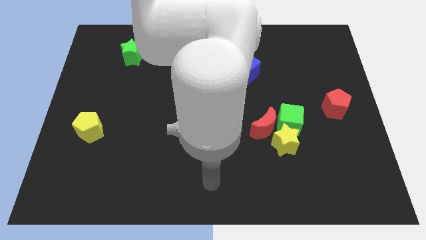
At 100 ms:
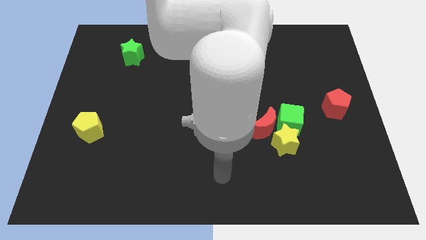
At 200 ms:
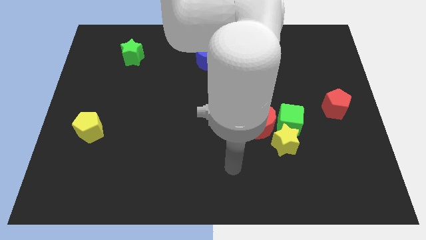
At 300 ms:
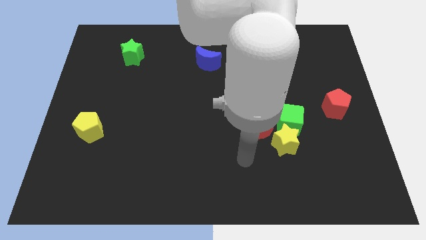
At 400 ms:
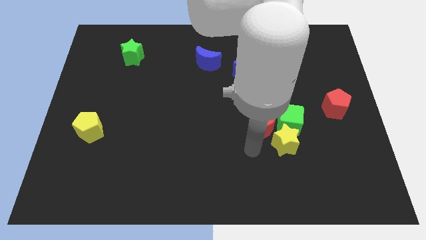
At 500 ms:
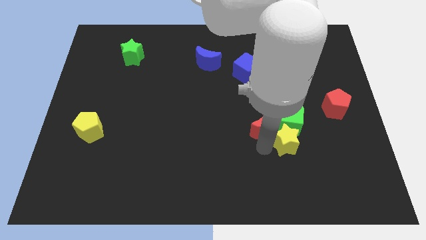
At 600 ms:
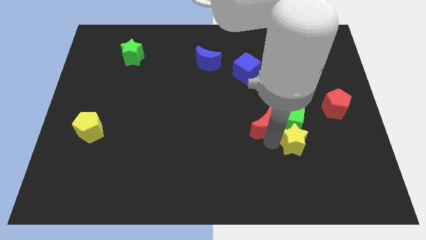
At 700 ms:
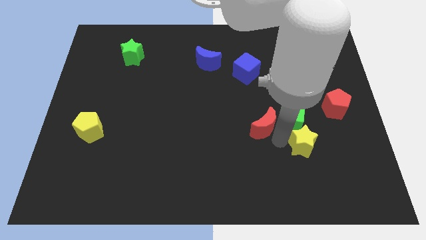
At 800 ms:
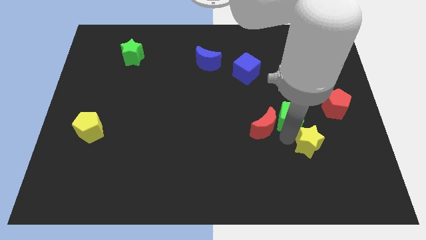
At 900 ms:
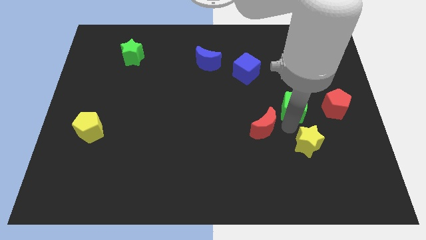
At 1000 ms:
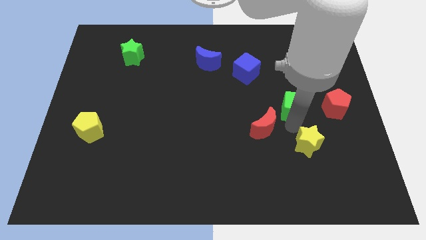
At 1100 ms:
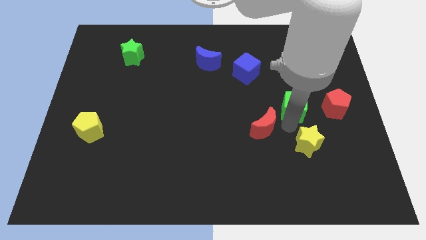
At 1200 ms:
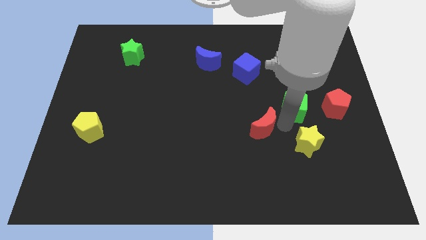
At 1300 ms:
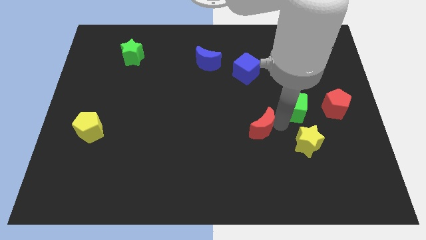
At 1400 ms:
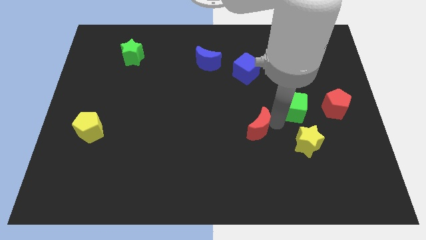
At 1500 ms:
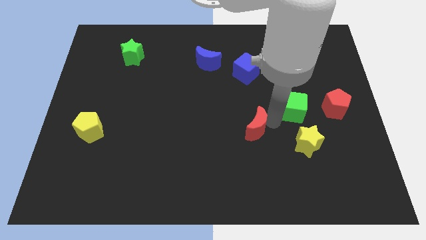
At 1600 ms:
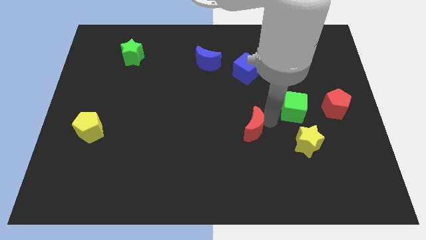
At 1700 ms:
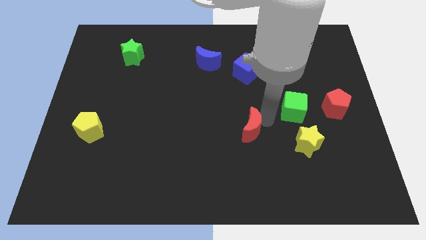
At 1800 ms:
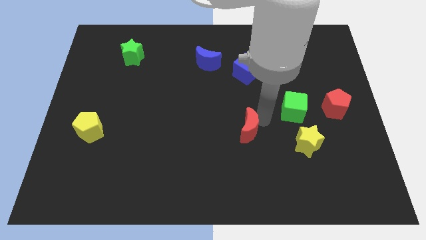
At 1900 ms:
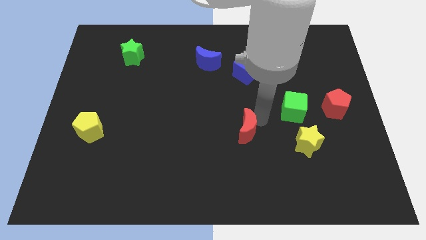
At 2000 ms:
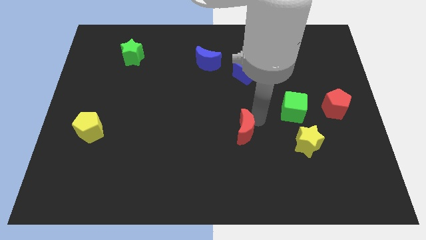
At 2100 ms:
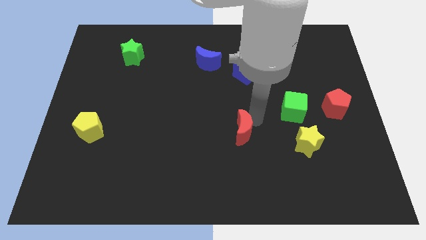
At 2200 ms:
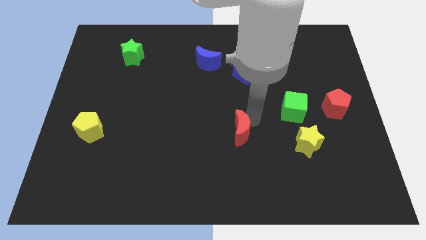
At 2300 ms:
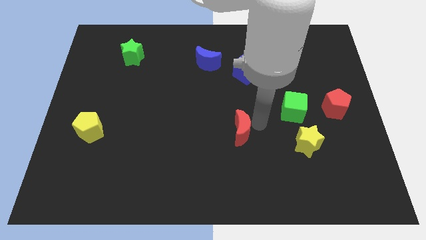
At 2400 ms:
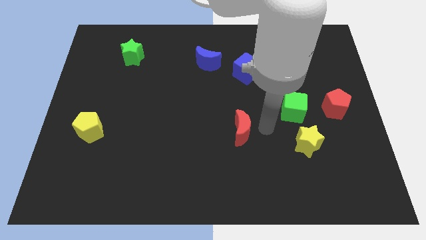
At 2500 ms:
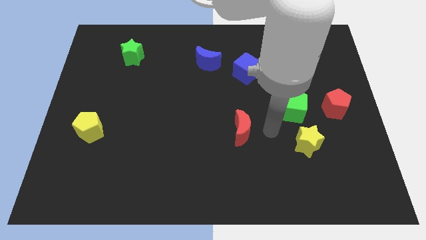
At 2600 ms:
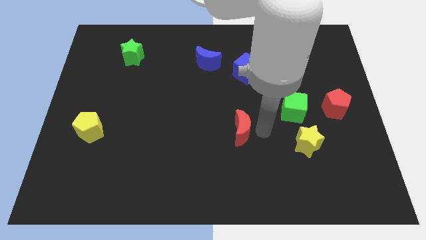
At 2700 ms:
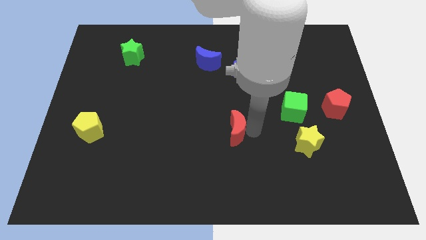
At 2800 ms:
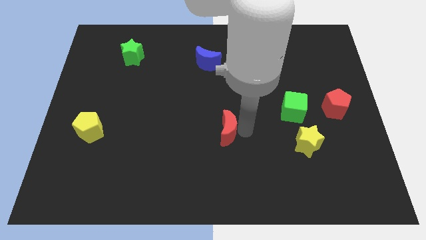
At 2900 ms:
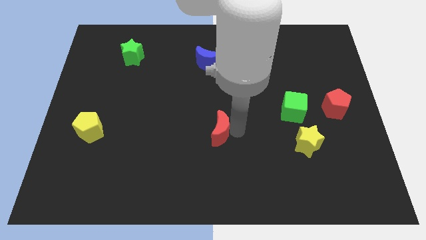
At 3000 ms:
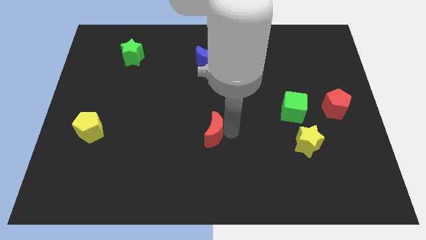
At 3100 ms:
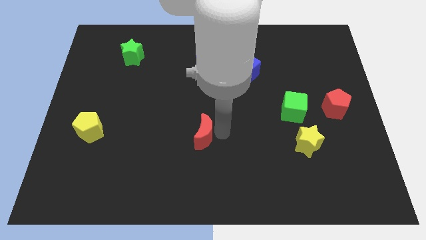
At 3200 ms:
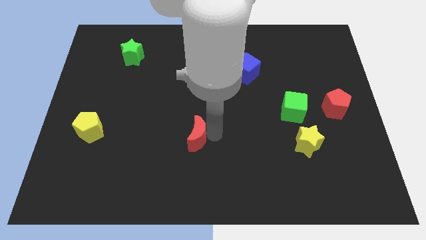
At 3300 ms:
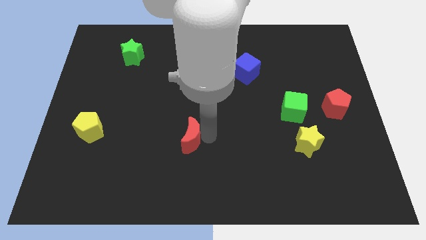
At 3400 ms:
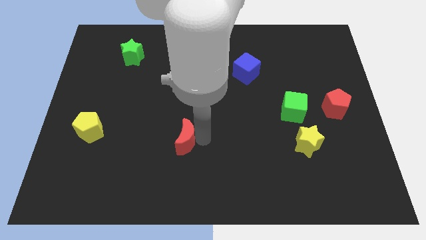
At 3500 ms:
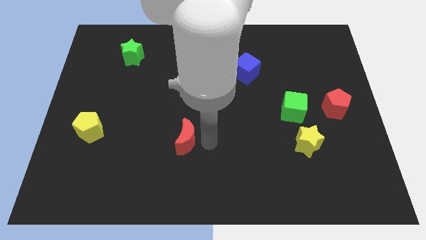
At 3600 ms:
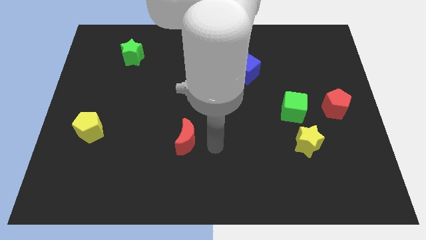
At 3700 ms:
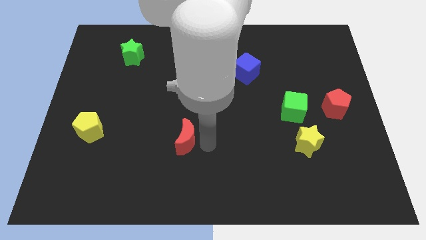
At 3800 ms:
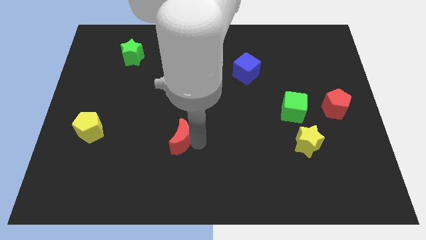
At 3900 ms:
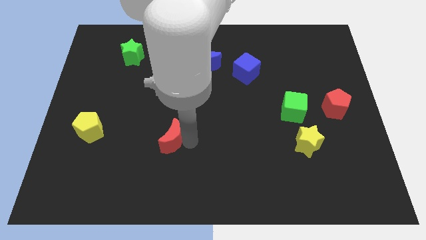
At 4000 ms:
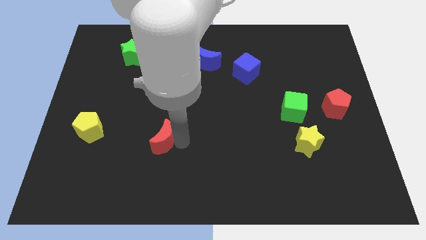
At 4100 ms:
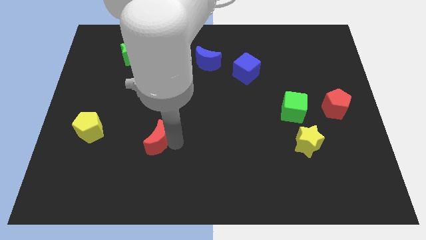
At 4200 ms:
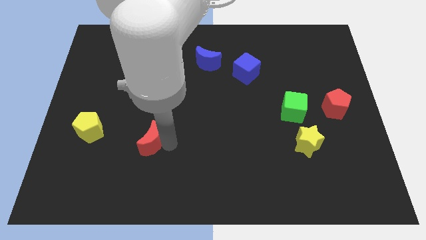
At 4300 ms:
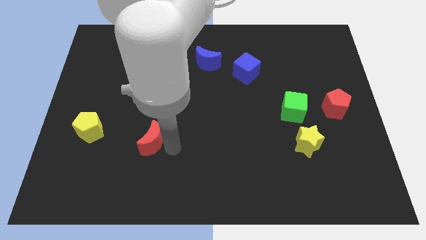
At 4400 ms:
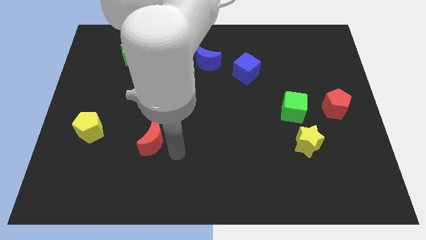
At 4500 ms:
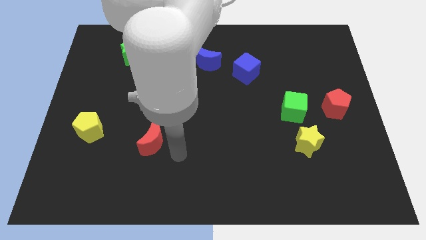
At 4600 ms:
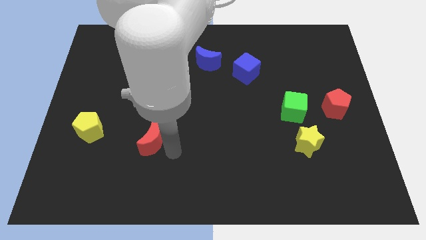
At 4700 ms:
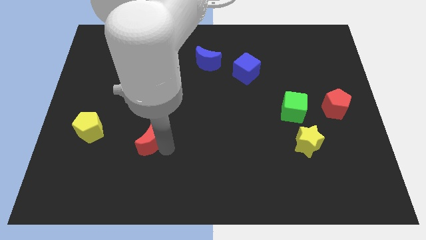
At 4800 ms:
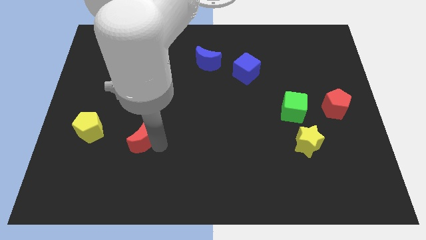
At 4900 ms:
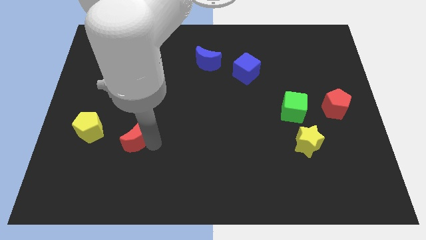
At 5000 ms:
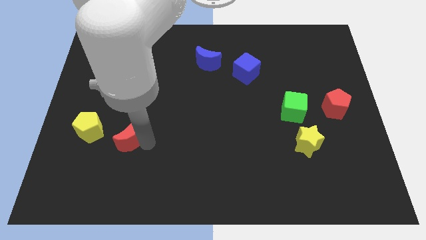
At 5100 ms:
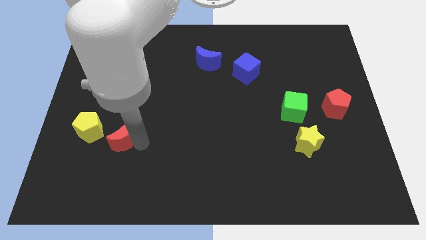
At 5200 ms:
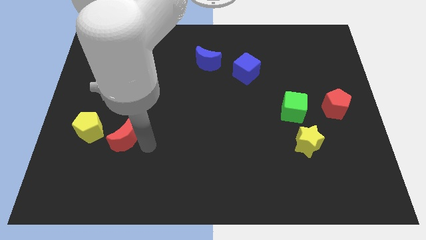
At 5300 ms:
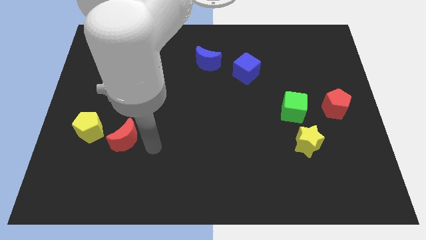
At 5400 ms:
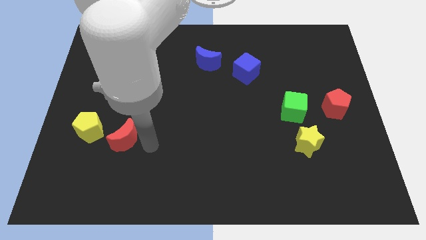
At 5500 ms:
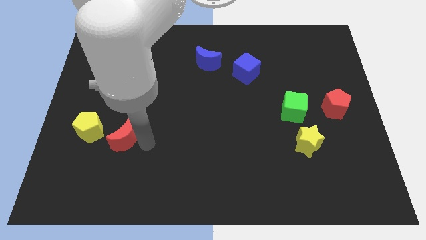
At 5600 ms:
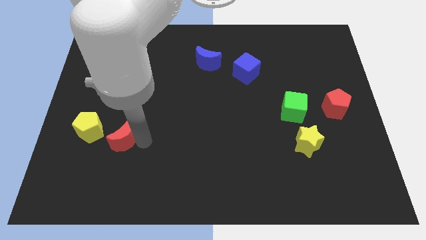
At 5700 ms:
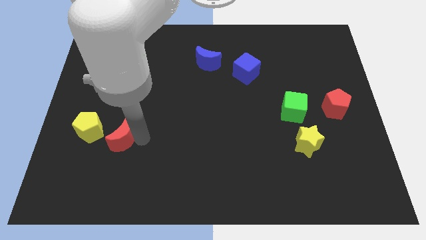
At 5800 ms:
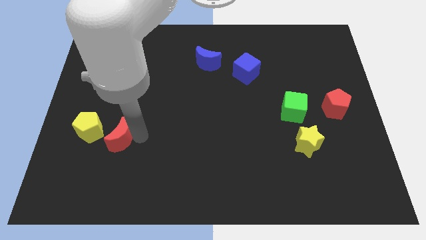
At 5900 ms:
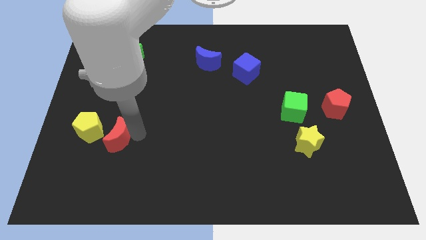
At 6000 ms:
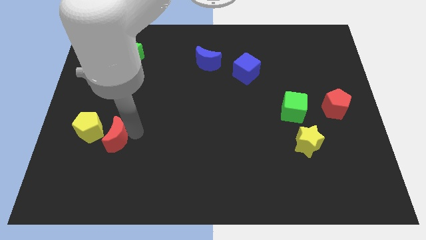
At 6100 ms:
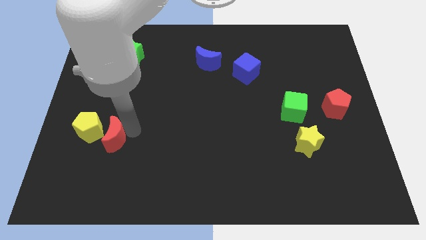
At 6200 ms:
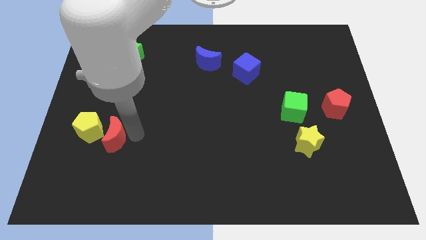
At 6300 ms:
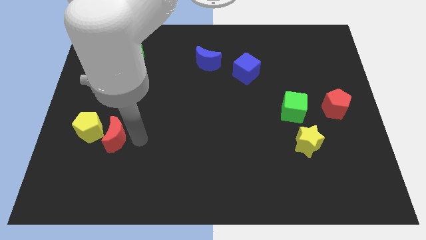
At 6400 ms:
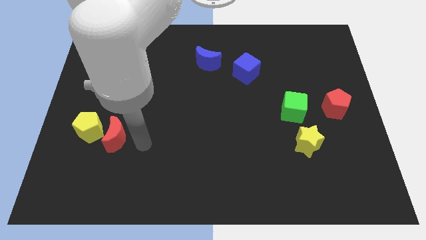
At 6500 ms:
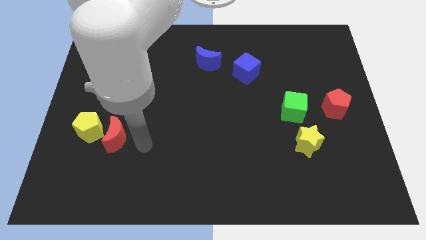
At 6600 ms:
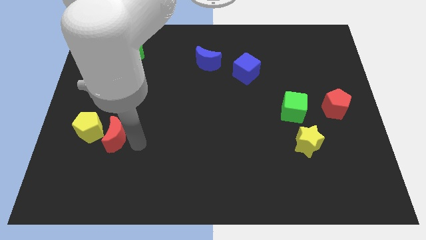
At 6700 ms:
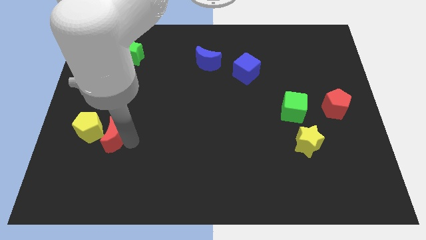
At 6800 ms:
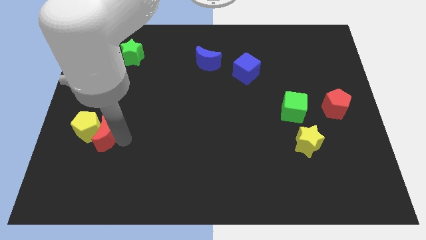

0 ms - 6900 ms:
push the red moon close to the yellow pentagon
